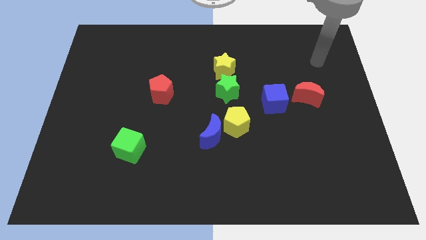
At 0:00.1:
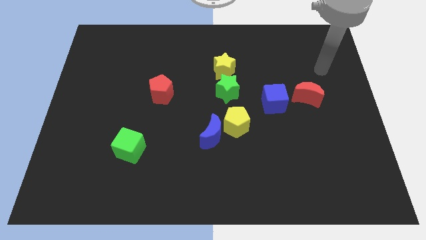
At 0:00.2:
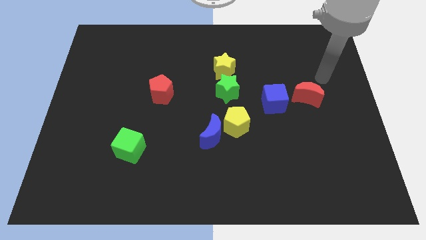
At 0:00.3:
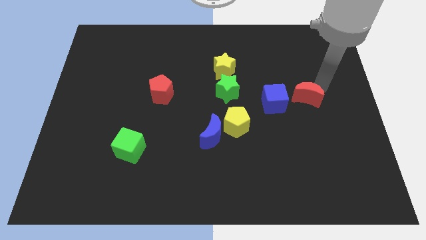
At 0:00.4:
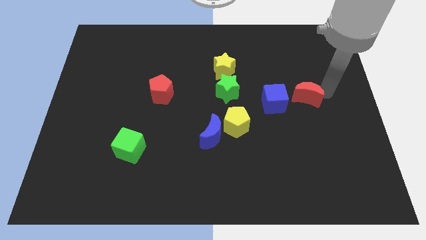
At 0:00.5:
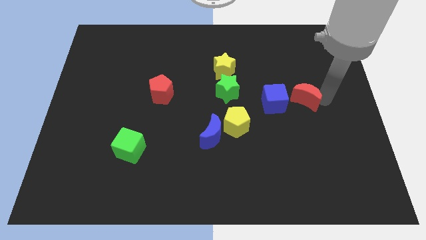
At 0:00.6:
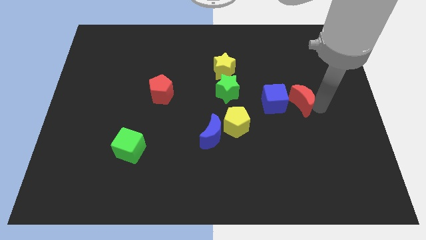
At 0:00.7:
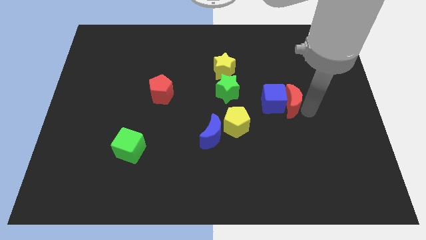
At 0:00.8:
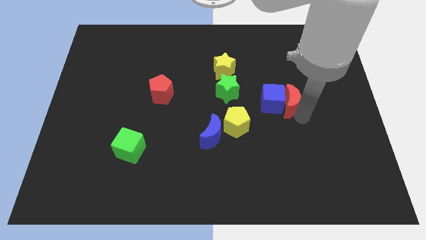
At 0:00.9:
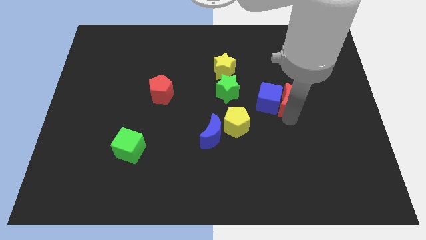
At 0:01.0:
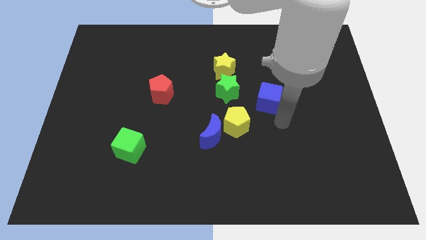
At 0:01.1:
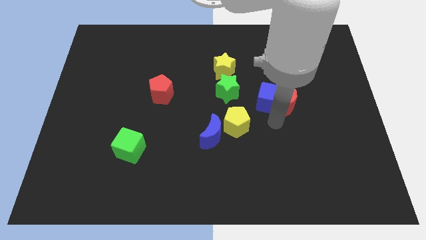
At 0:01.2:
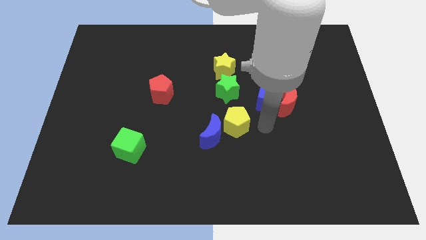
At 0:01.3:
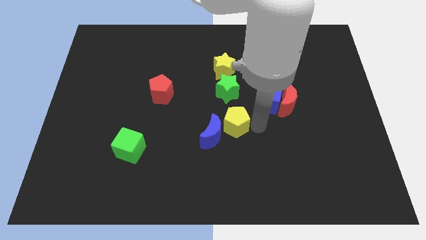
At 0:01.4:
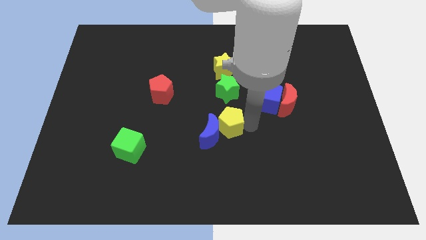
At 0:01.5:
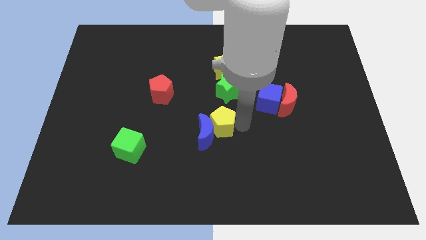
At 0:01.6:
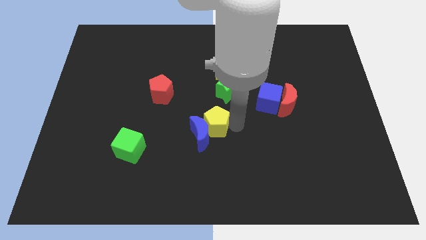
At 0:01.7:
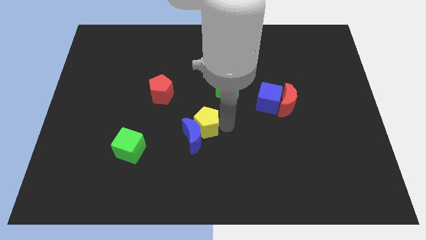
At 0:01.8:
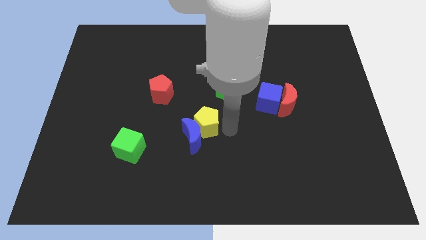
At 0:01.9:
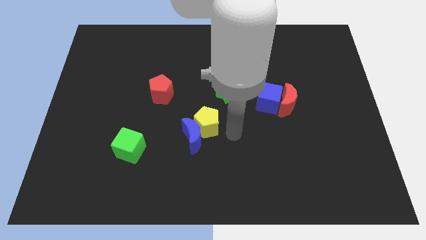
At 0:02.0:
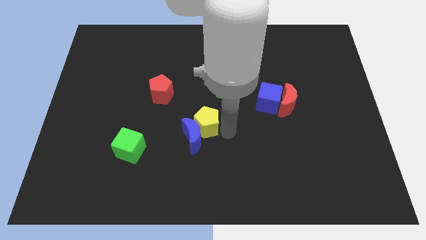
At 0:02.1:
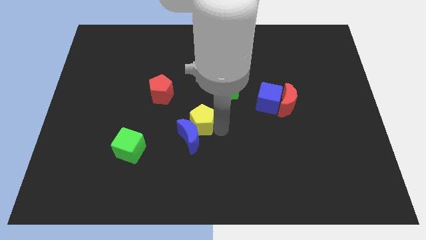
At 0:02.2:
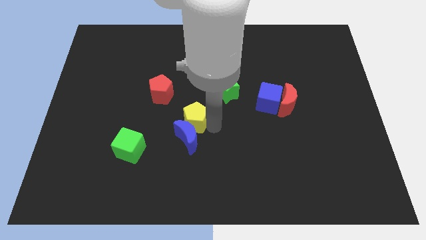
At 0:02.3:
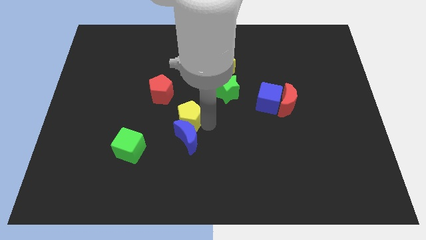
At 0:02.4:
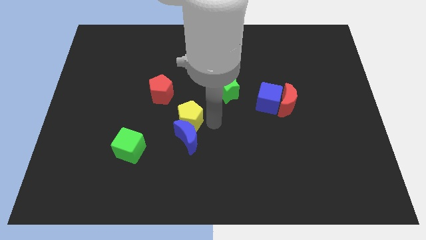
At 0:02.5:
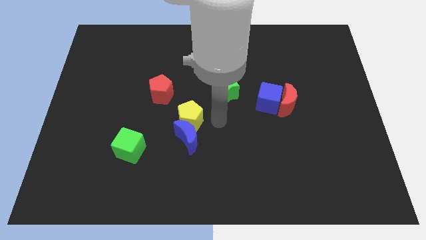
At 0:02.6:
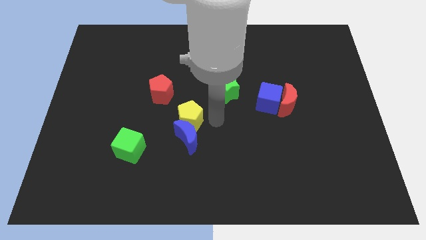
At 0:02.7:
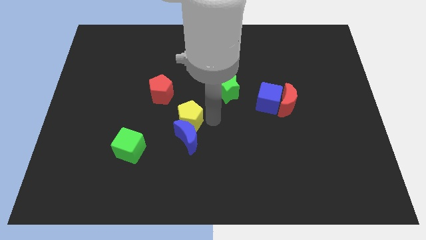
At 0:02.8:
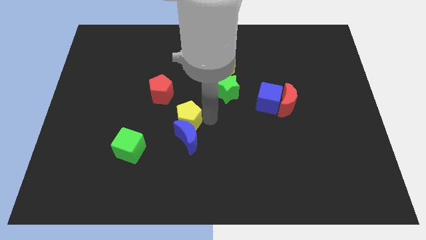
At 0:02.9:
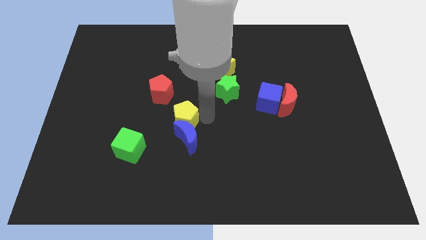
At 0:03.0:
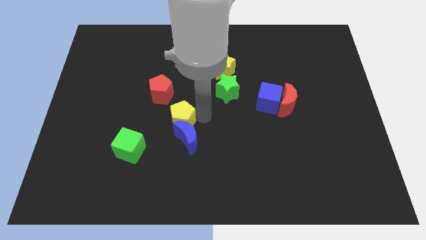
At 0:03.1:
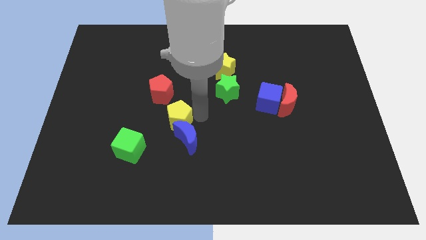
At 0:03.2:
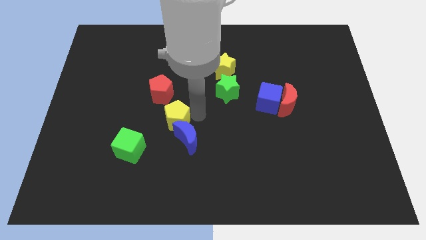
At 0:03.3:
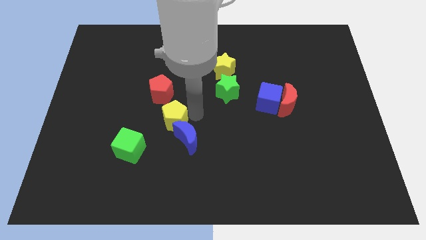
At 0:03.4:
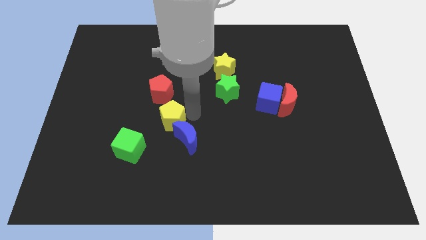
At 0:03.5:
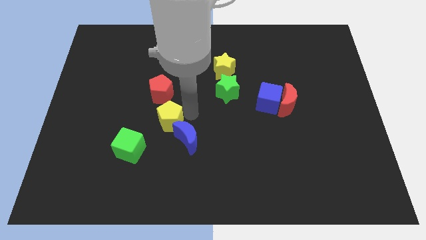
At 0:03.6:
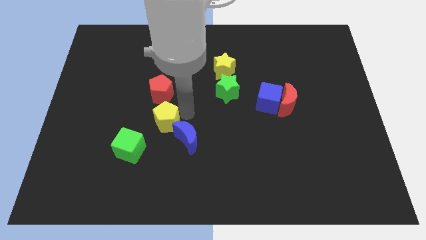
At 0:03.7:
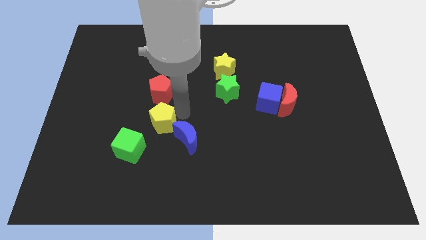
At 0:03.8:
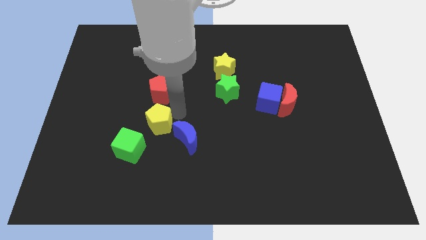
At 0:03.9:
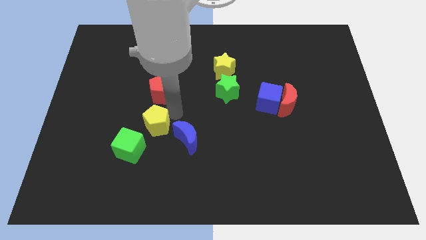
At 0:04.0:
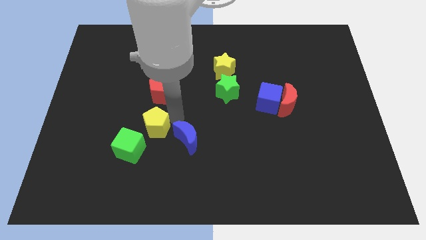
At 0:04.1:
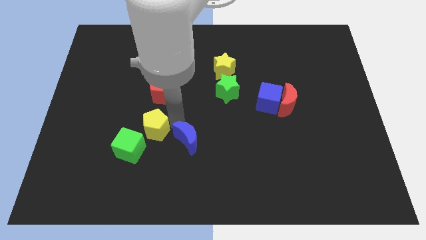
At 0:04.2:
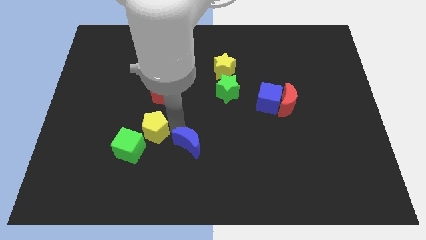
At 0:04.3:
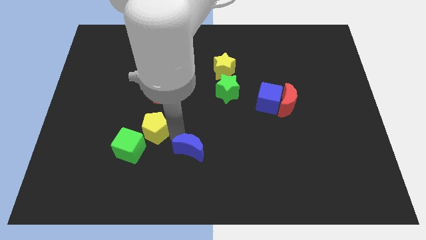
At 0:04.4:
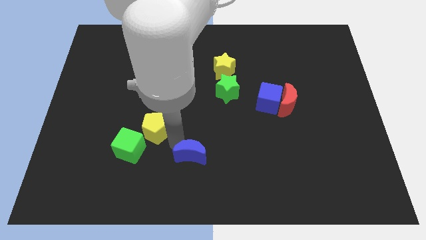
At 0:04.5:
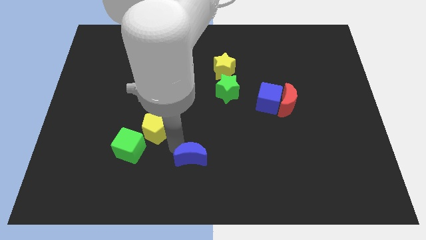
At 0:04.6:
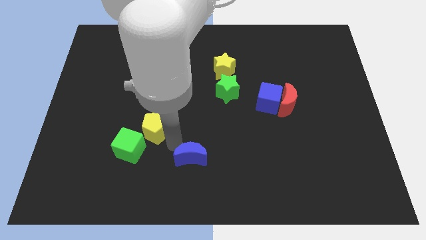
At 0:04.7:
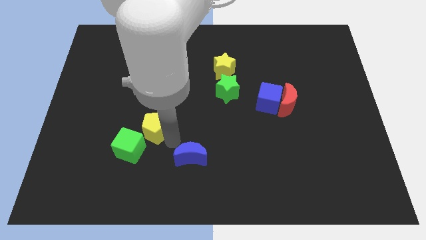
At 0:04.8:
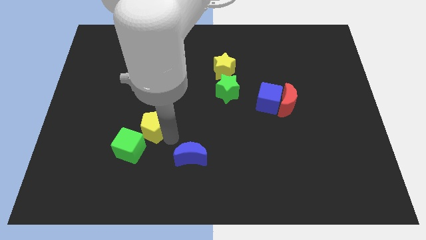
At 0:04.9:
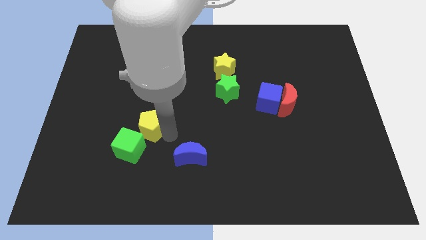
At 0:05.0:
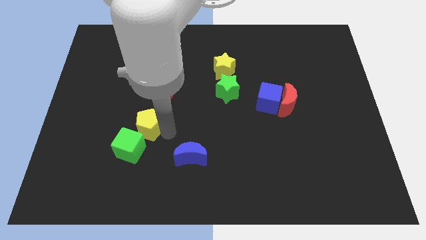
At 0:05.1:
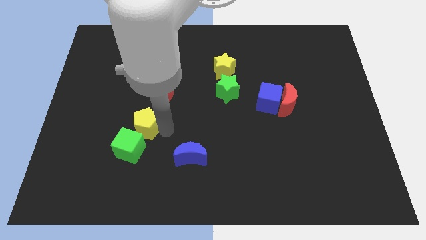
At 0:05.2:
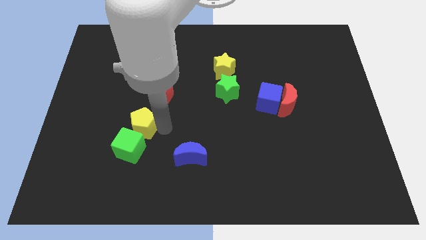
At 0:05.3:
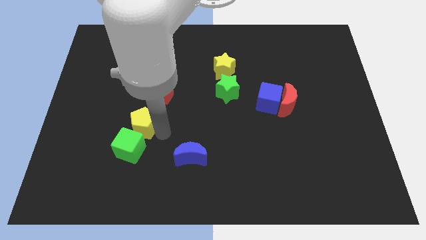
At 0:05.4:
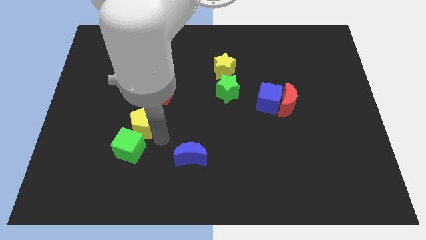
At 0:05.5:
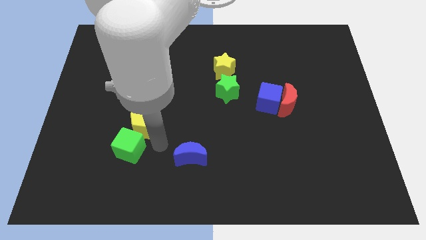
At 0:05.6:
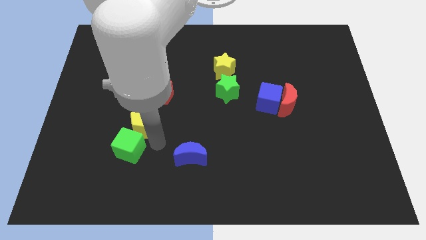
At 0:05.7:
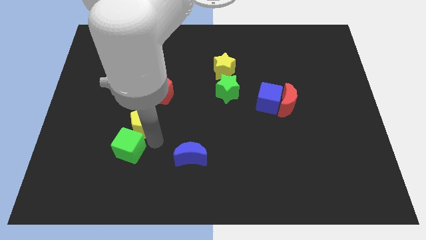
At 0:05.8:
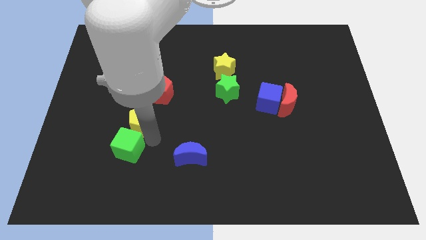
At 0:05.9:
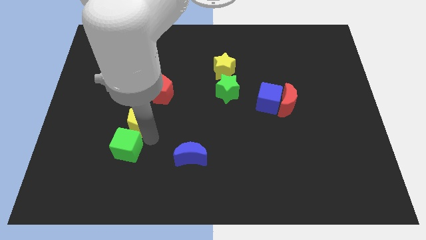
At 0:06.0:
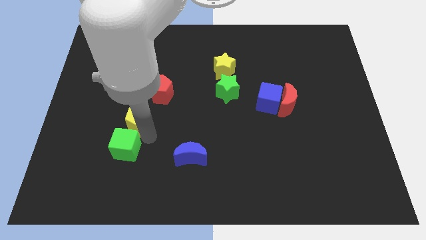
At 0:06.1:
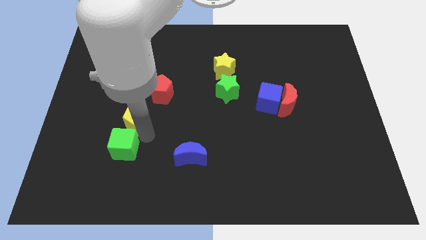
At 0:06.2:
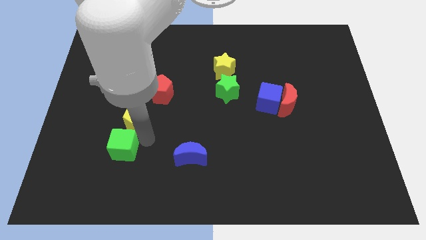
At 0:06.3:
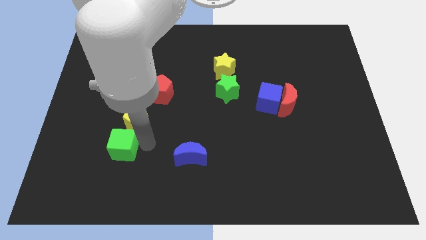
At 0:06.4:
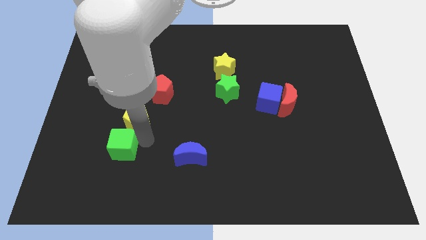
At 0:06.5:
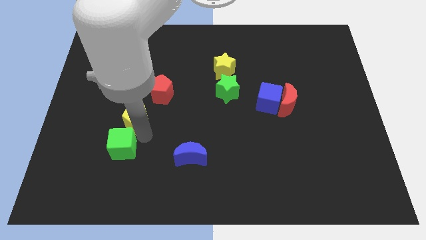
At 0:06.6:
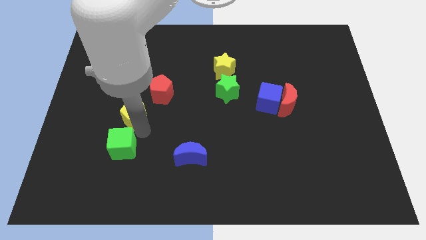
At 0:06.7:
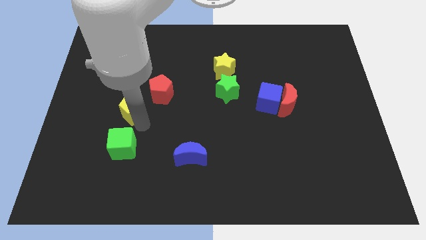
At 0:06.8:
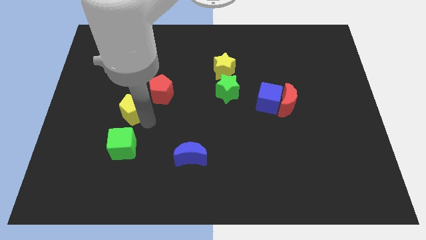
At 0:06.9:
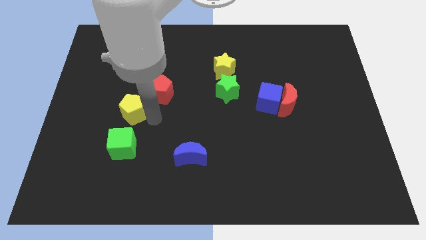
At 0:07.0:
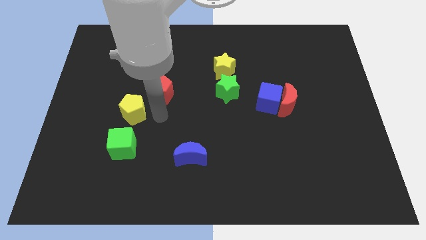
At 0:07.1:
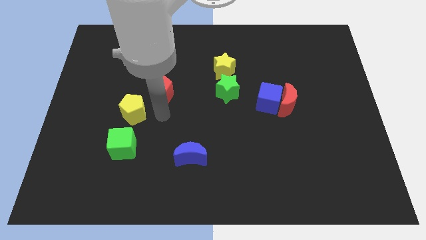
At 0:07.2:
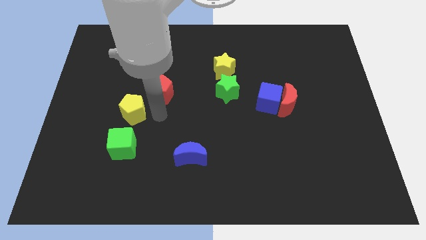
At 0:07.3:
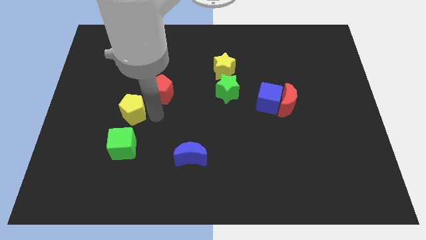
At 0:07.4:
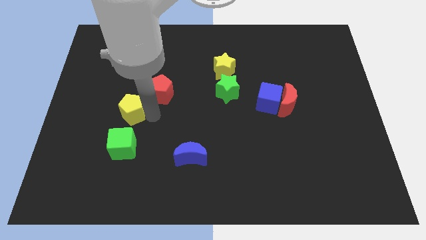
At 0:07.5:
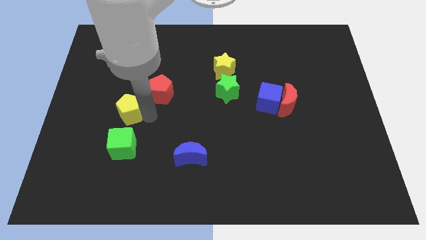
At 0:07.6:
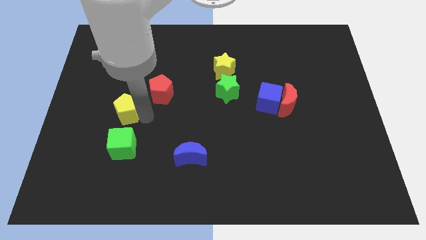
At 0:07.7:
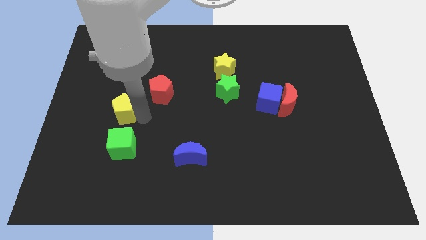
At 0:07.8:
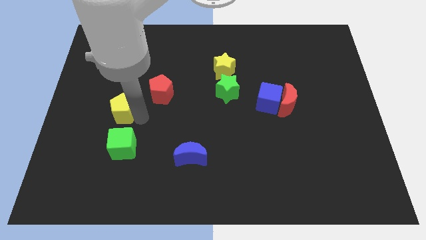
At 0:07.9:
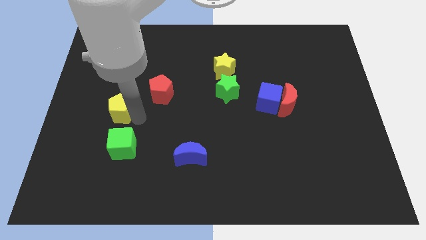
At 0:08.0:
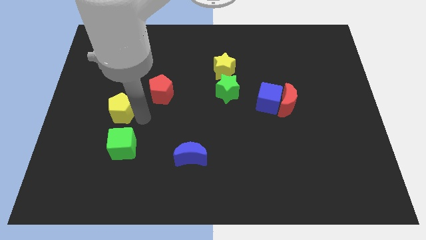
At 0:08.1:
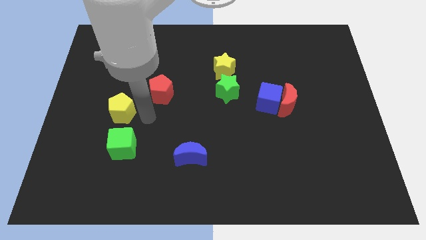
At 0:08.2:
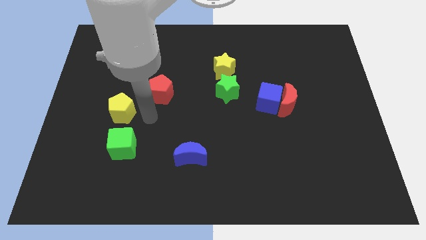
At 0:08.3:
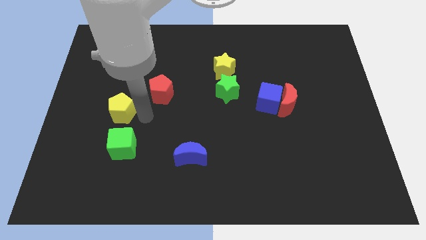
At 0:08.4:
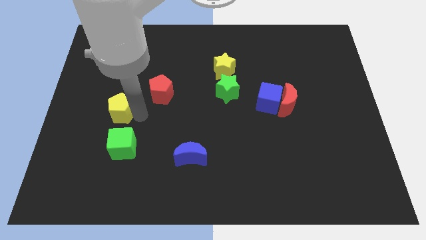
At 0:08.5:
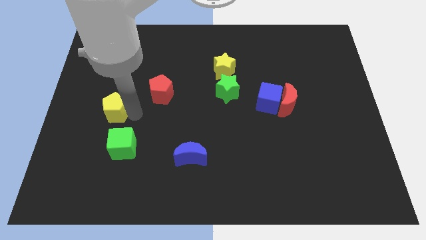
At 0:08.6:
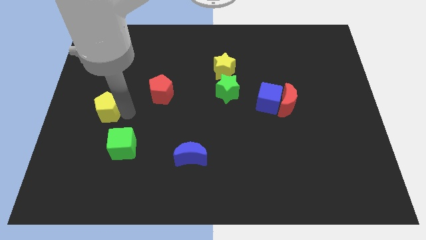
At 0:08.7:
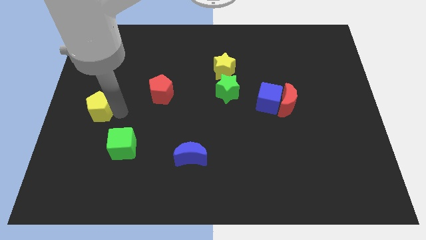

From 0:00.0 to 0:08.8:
move the yellow pentagon to the left side
